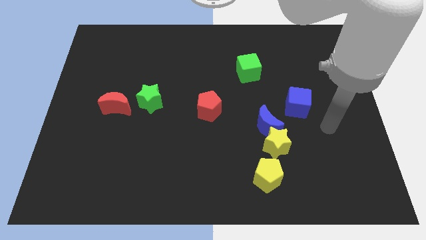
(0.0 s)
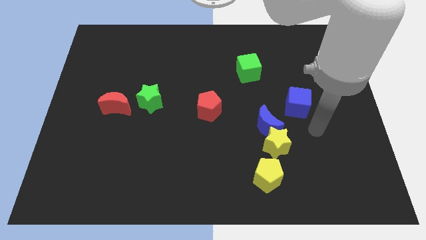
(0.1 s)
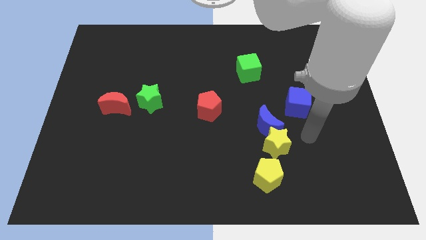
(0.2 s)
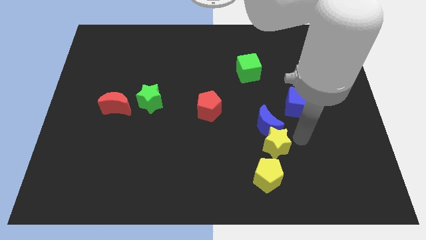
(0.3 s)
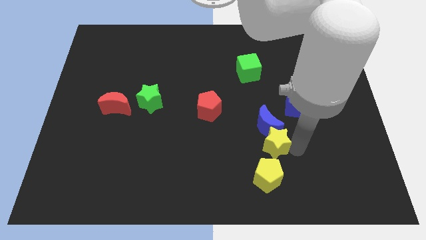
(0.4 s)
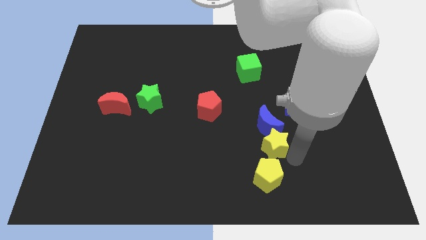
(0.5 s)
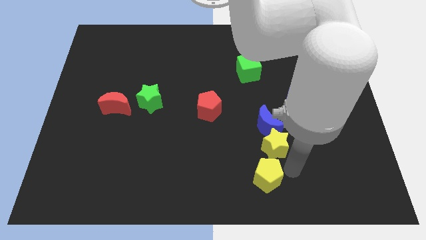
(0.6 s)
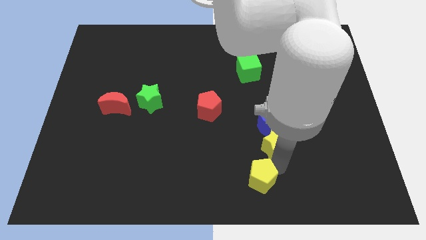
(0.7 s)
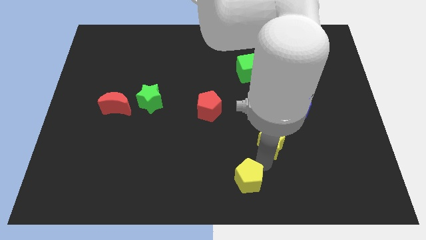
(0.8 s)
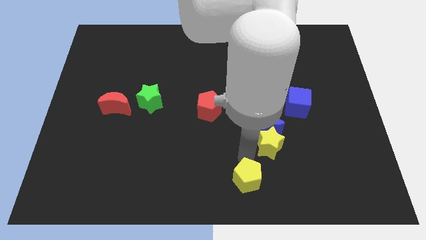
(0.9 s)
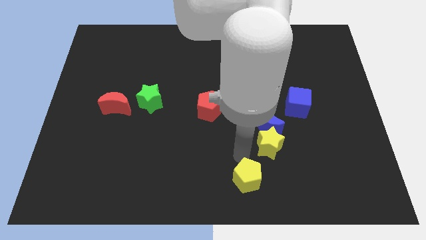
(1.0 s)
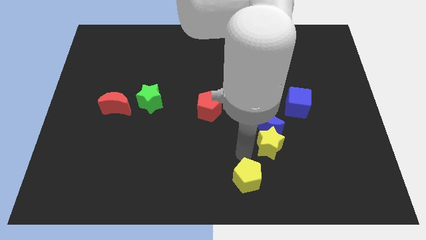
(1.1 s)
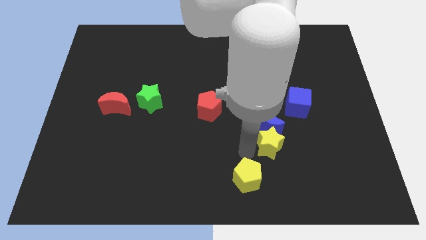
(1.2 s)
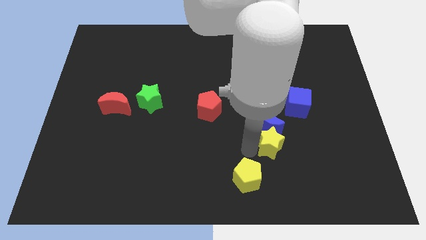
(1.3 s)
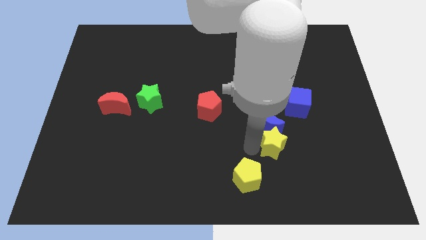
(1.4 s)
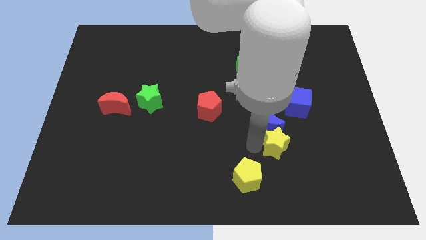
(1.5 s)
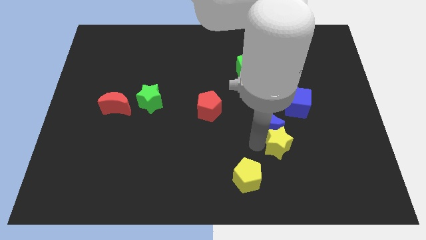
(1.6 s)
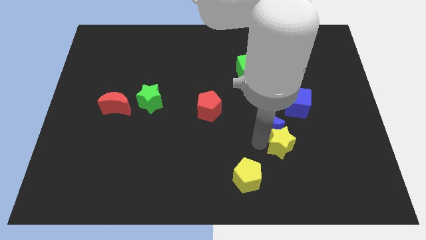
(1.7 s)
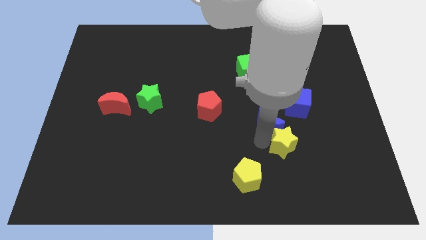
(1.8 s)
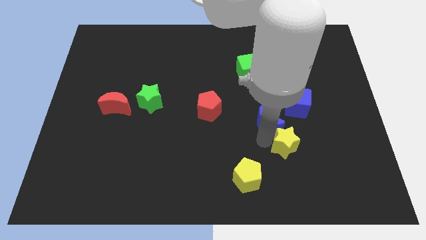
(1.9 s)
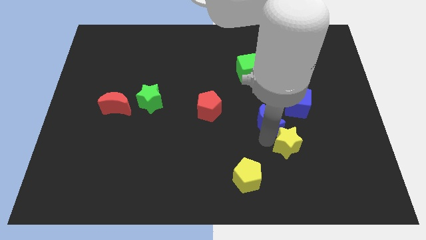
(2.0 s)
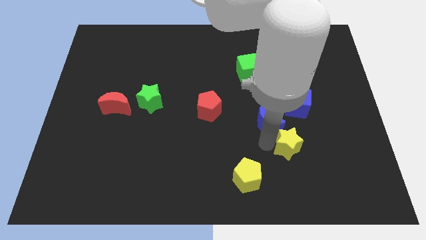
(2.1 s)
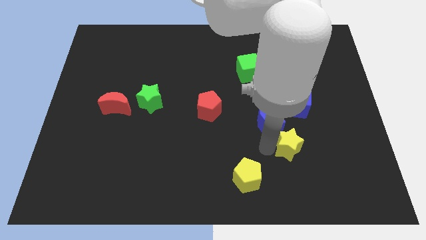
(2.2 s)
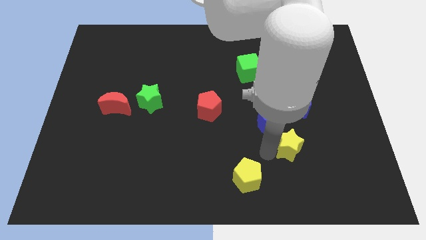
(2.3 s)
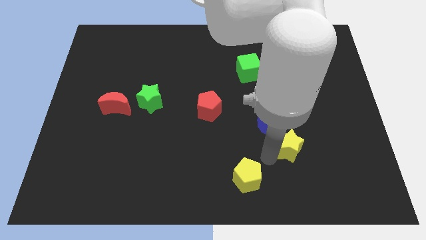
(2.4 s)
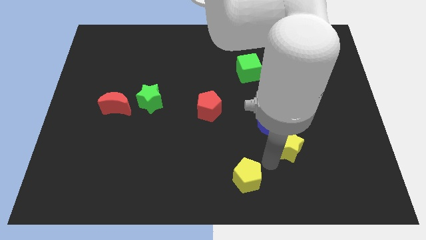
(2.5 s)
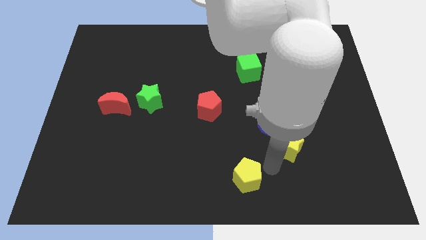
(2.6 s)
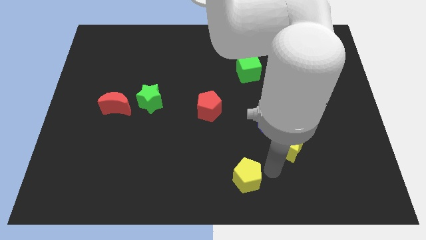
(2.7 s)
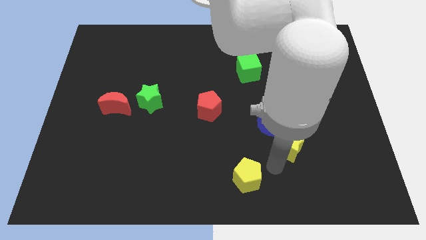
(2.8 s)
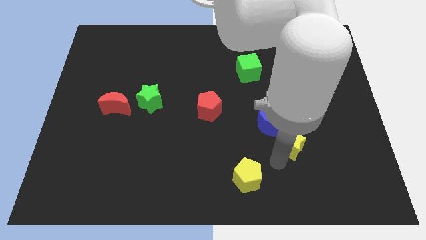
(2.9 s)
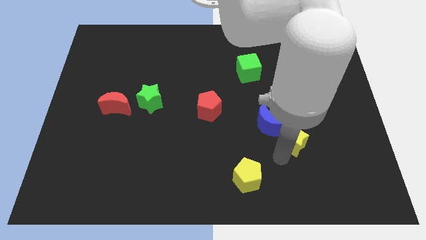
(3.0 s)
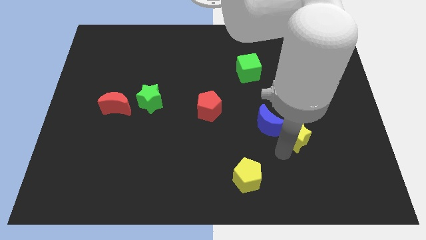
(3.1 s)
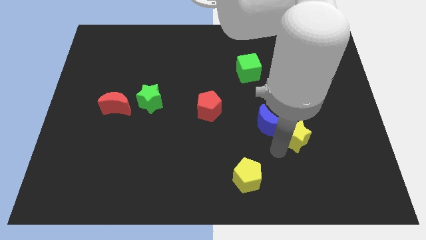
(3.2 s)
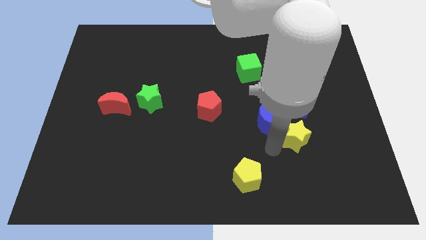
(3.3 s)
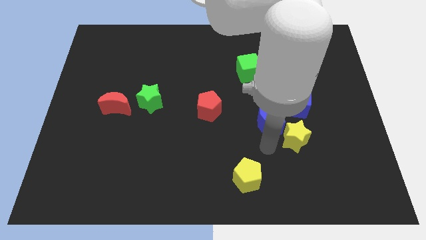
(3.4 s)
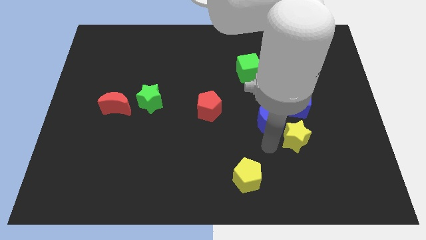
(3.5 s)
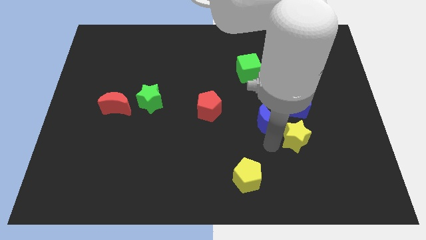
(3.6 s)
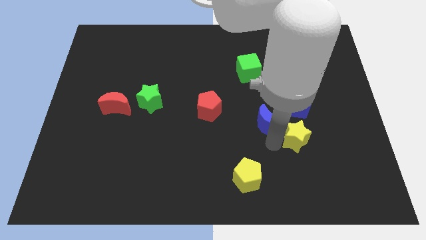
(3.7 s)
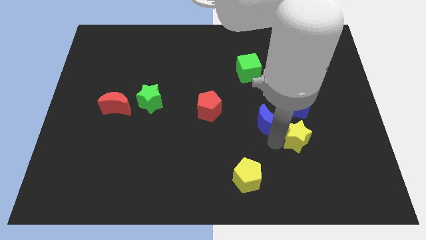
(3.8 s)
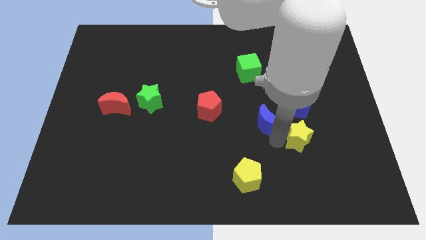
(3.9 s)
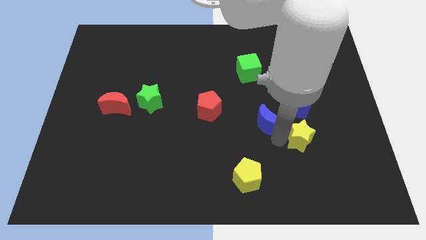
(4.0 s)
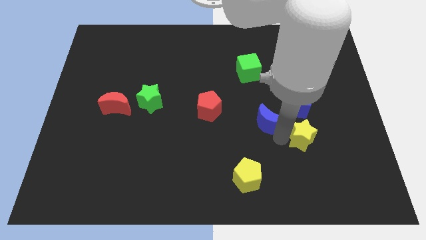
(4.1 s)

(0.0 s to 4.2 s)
separate the yellow star from the blue moon and yellow pentagon

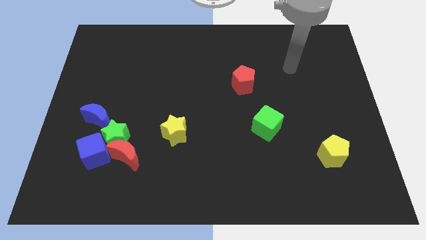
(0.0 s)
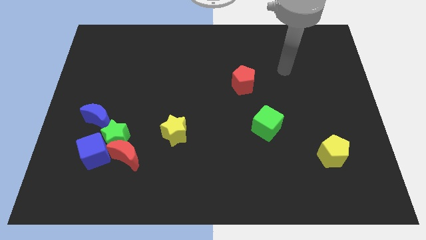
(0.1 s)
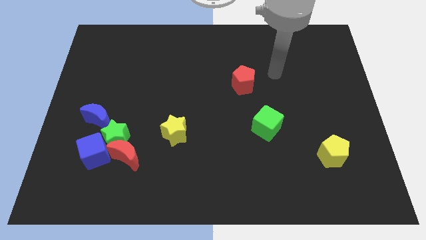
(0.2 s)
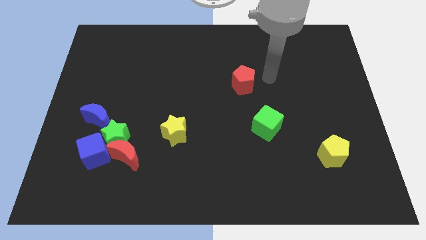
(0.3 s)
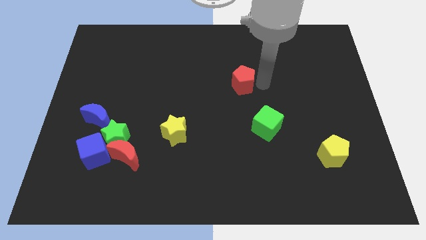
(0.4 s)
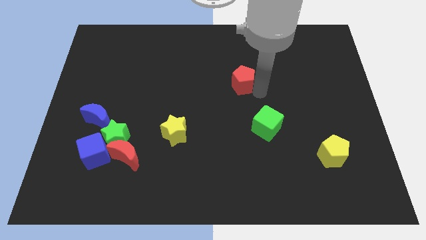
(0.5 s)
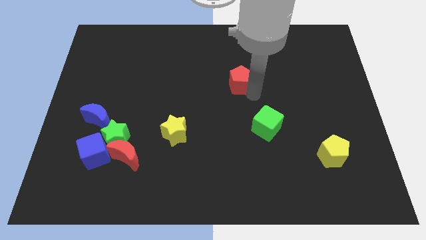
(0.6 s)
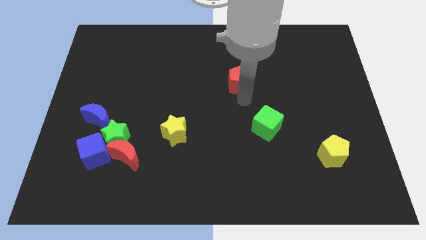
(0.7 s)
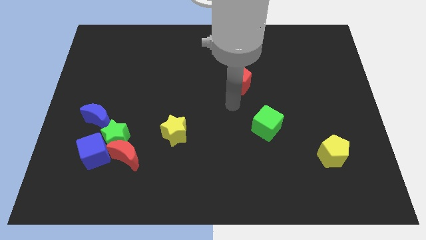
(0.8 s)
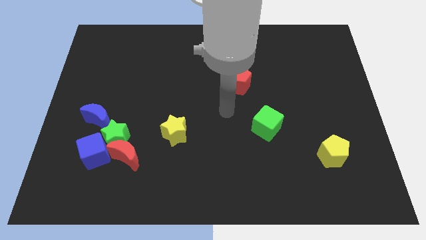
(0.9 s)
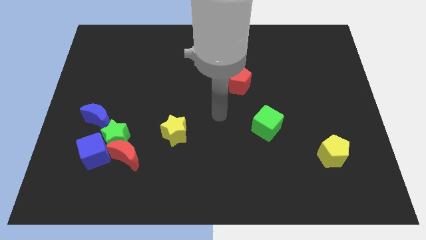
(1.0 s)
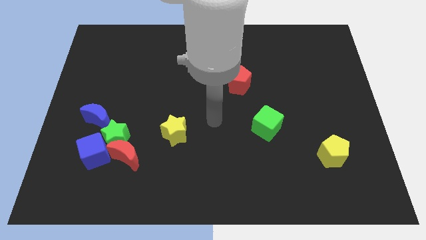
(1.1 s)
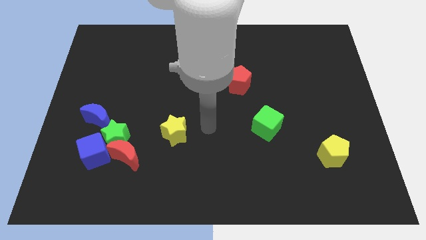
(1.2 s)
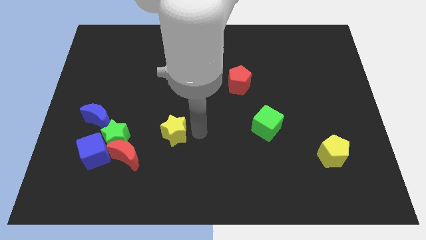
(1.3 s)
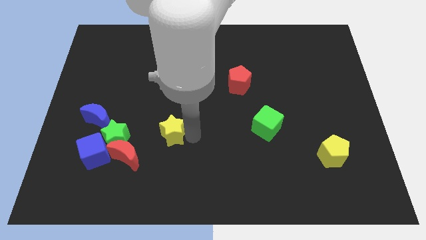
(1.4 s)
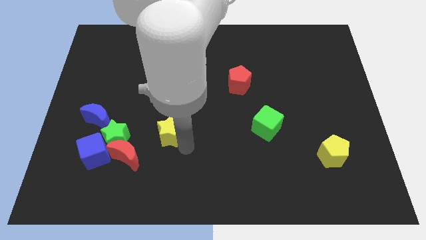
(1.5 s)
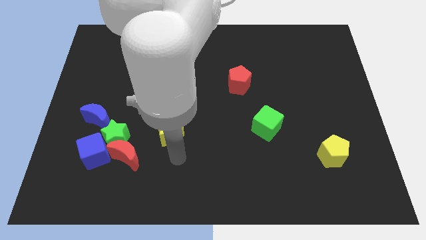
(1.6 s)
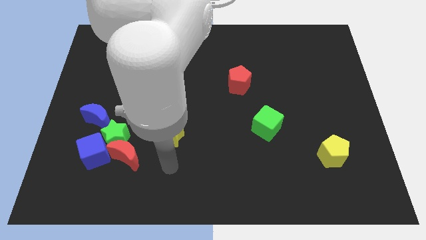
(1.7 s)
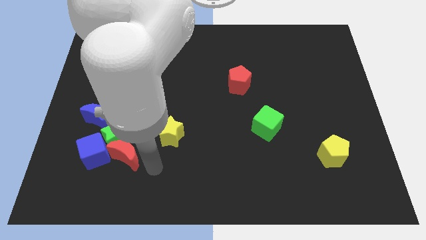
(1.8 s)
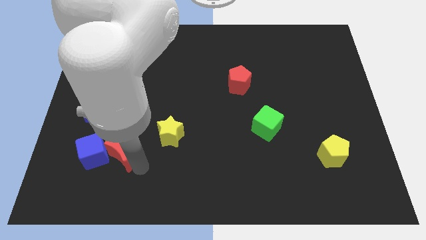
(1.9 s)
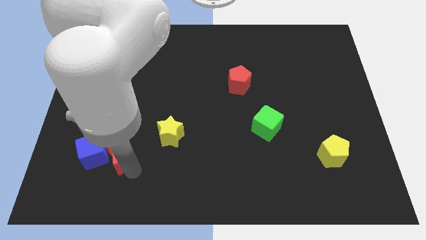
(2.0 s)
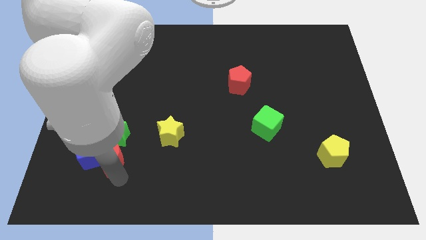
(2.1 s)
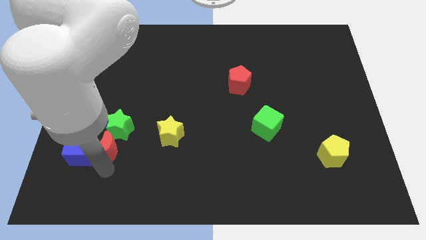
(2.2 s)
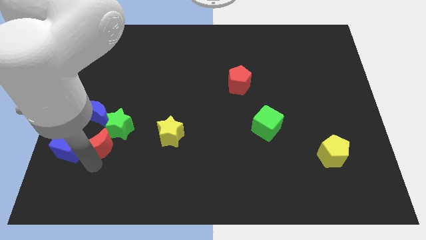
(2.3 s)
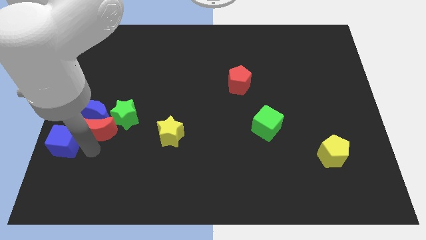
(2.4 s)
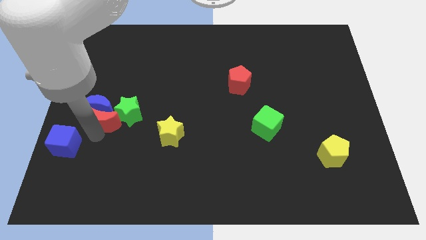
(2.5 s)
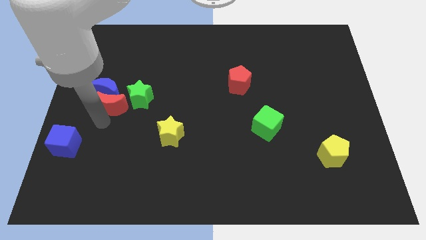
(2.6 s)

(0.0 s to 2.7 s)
separate the green star from the red moon, blue cube, and blue moon

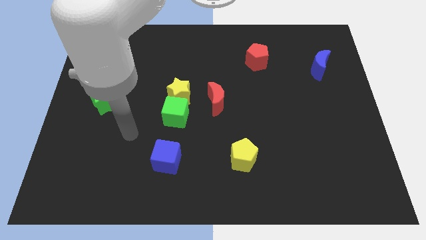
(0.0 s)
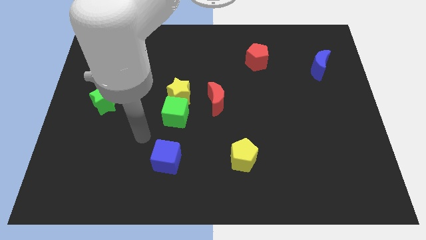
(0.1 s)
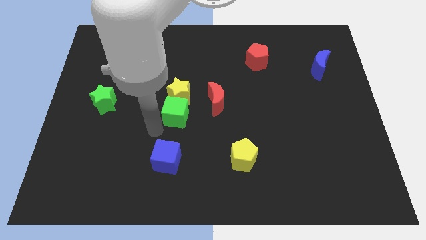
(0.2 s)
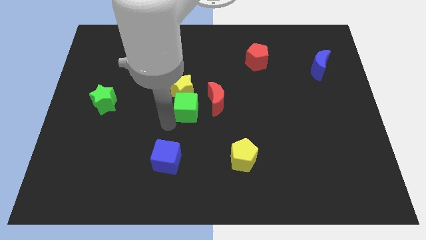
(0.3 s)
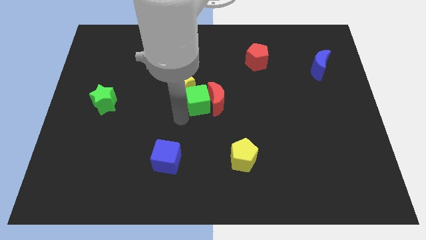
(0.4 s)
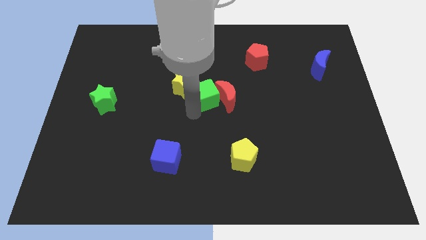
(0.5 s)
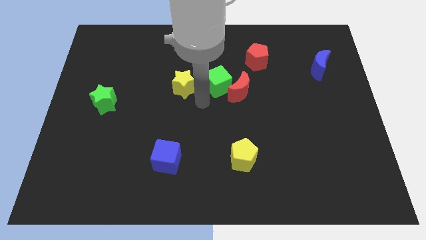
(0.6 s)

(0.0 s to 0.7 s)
pull the yellow star apart from the green cube and red moon

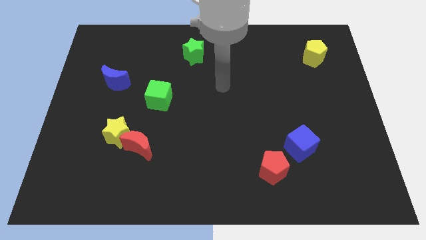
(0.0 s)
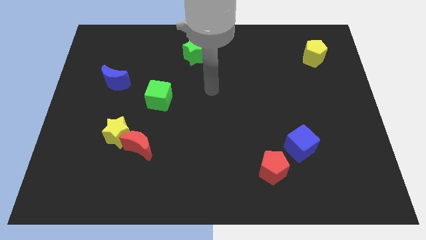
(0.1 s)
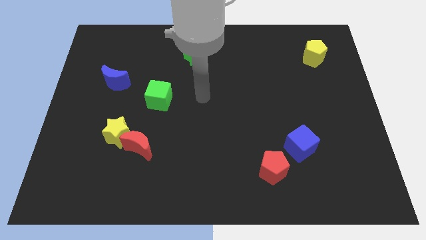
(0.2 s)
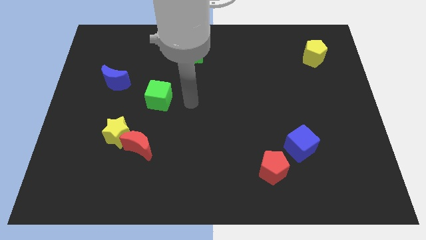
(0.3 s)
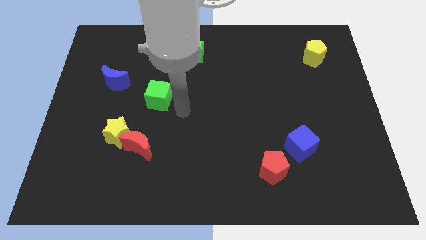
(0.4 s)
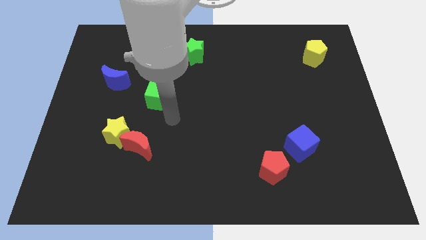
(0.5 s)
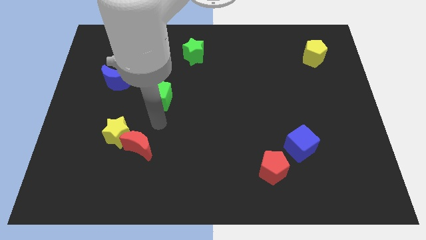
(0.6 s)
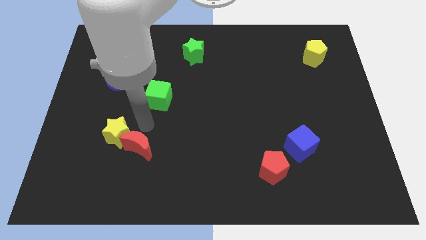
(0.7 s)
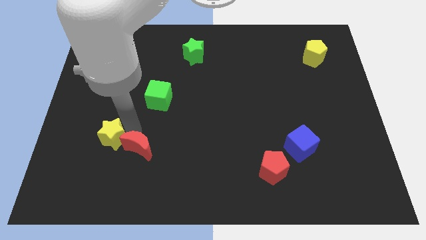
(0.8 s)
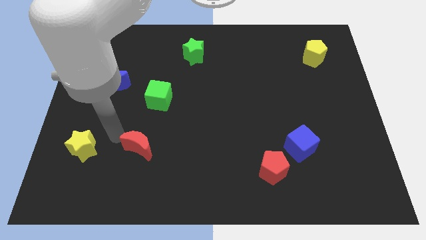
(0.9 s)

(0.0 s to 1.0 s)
separate the red moon from the yellow star

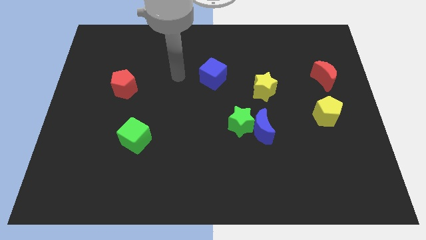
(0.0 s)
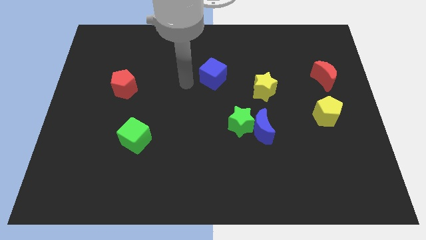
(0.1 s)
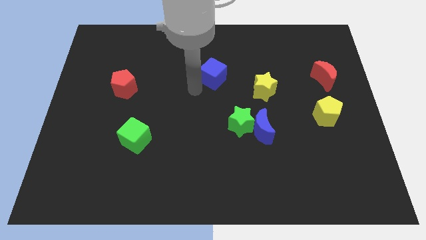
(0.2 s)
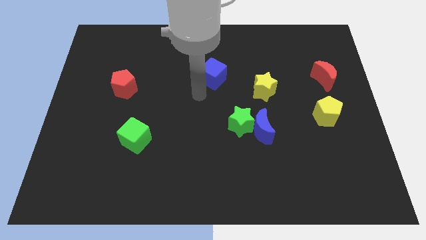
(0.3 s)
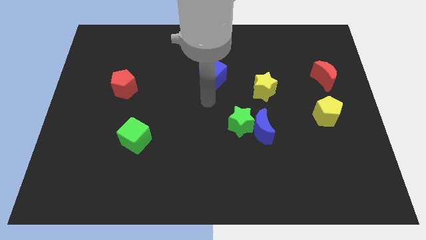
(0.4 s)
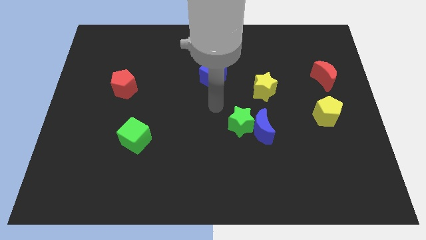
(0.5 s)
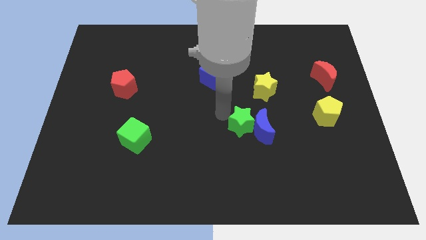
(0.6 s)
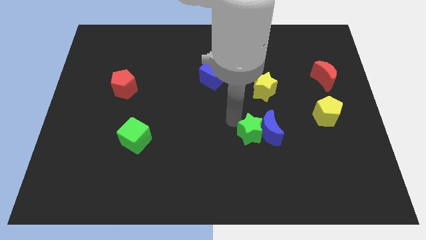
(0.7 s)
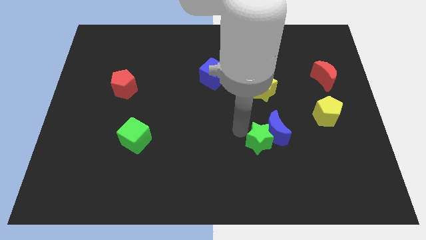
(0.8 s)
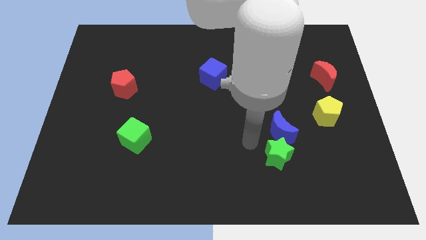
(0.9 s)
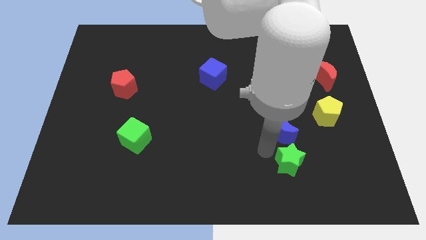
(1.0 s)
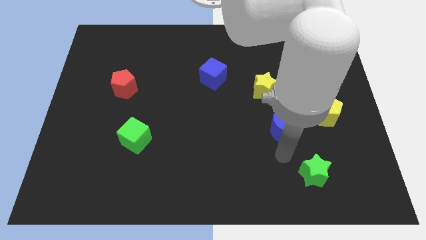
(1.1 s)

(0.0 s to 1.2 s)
separate the blue moon from the green star
